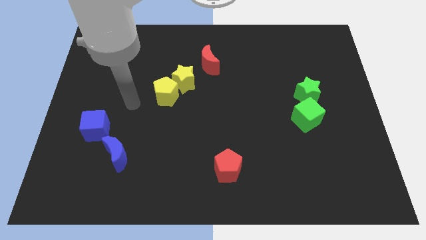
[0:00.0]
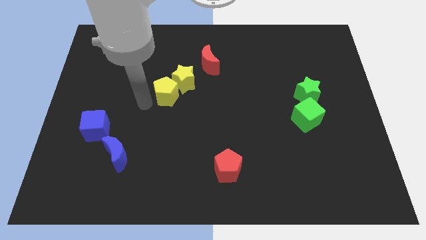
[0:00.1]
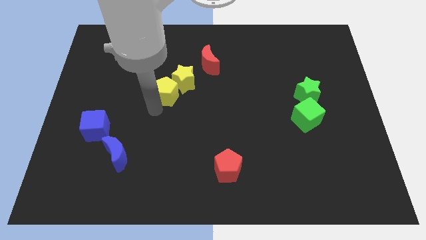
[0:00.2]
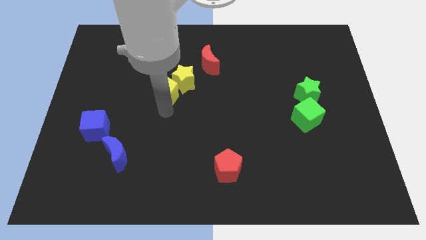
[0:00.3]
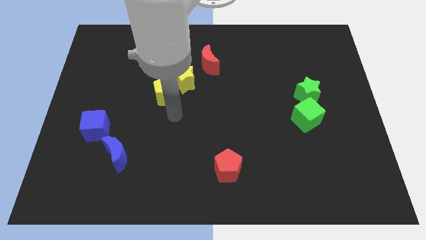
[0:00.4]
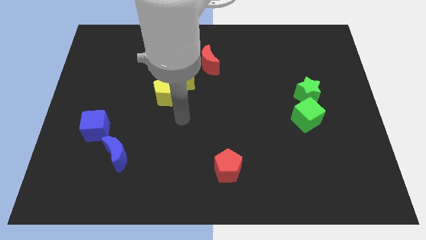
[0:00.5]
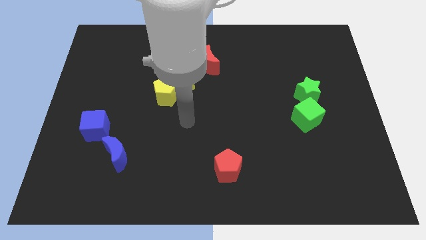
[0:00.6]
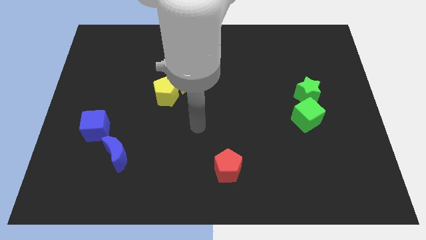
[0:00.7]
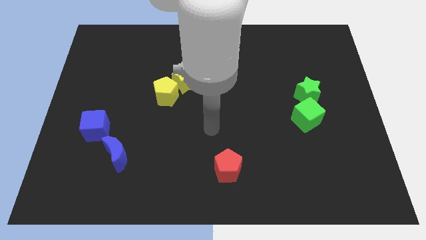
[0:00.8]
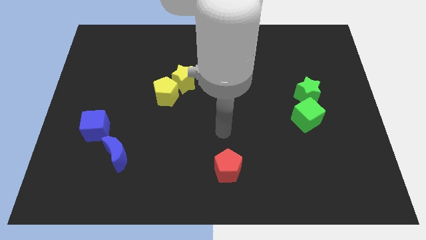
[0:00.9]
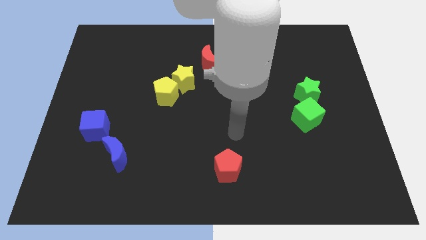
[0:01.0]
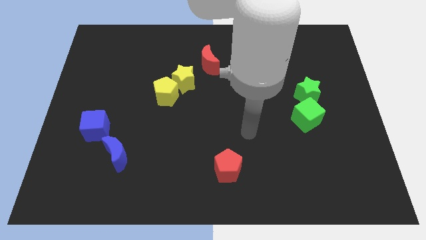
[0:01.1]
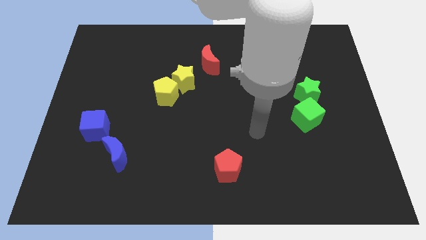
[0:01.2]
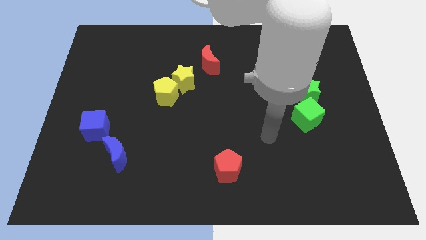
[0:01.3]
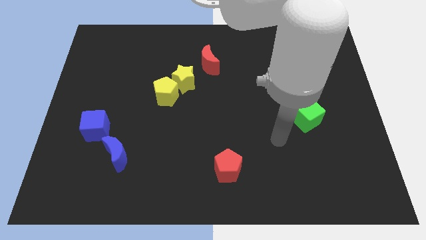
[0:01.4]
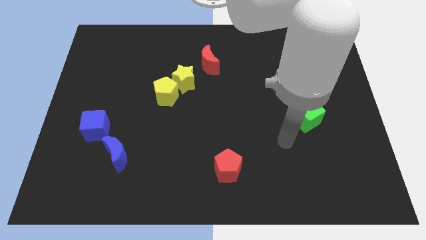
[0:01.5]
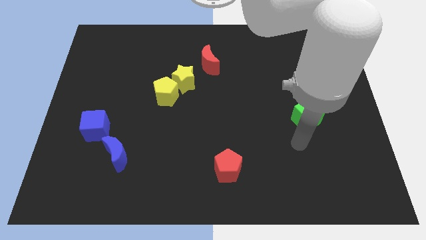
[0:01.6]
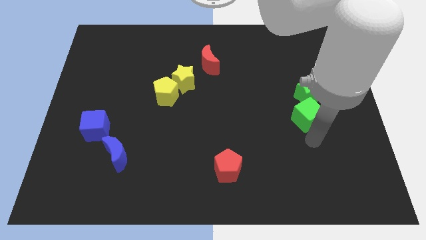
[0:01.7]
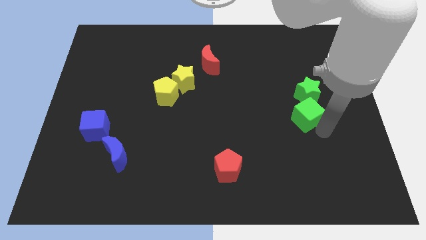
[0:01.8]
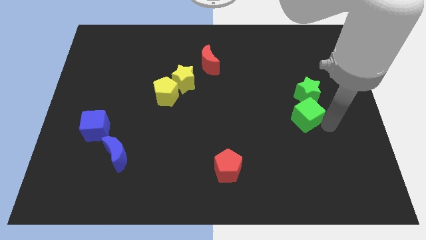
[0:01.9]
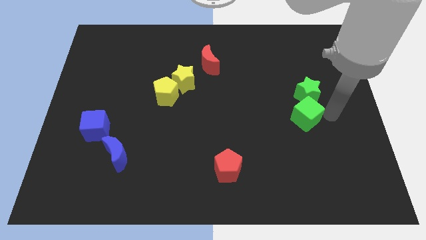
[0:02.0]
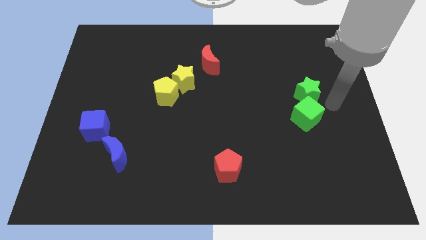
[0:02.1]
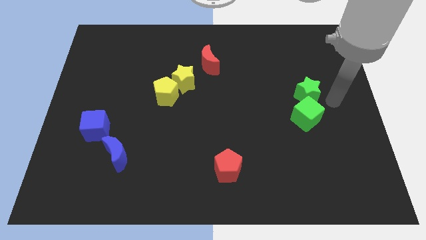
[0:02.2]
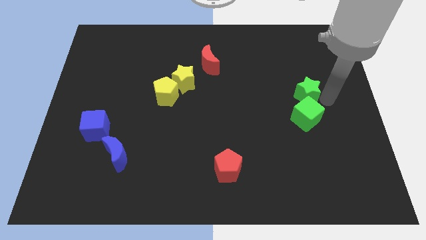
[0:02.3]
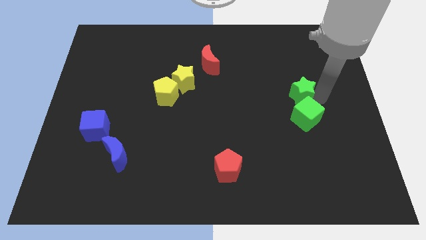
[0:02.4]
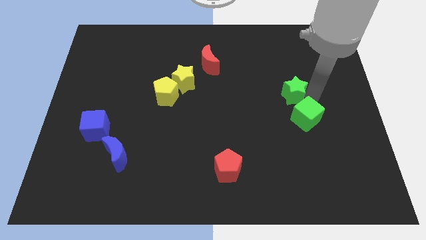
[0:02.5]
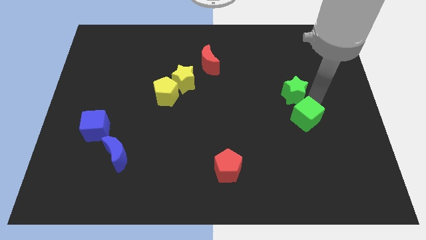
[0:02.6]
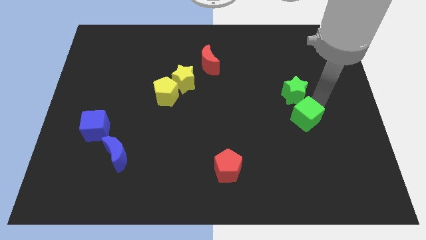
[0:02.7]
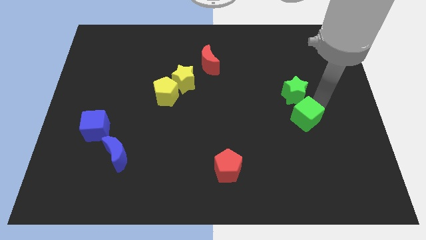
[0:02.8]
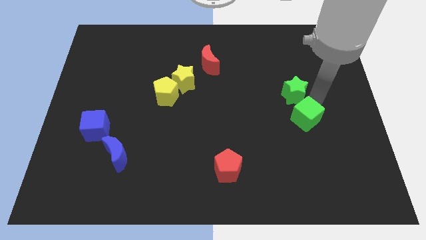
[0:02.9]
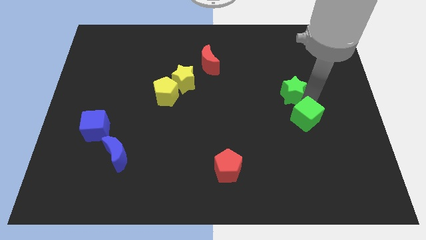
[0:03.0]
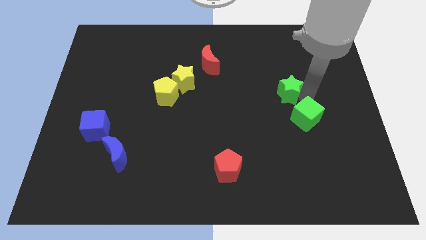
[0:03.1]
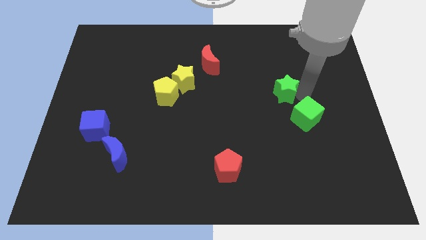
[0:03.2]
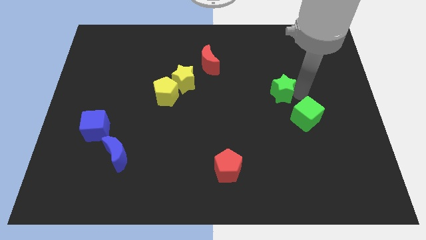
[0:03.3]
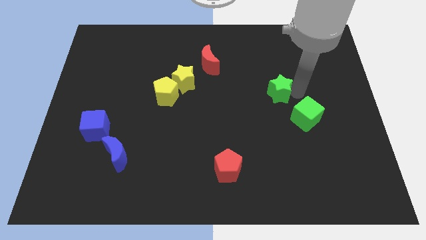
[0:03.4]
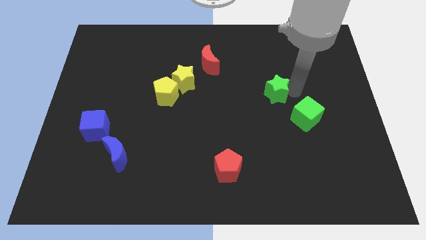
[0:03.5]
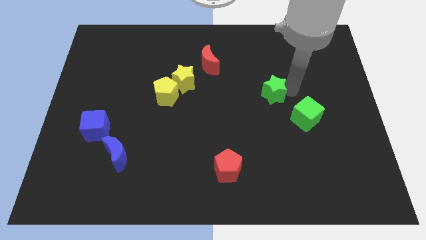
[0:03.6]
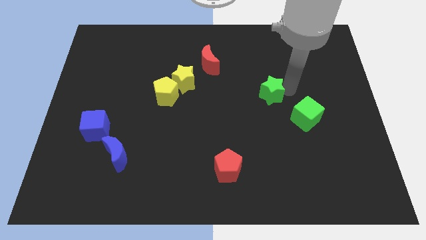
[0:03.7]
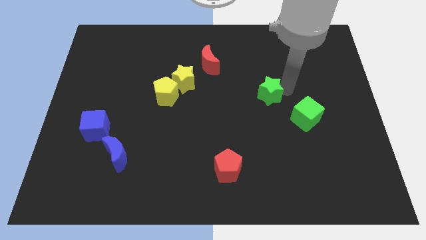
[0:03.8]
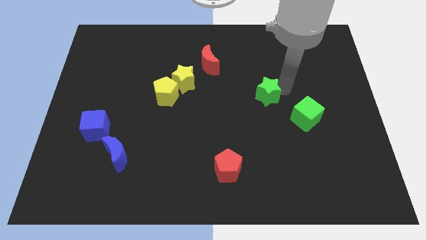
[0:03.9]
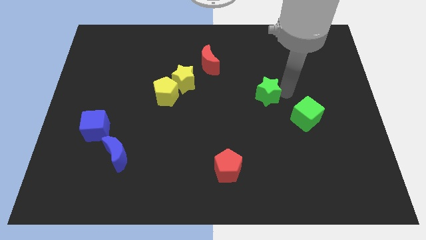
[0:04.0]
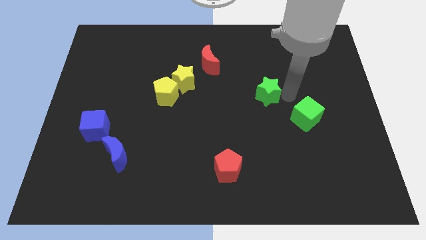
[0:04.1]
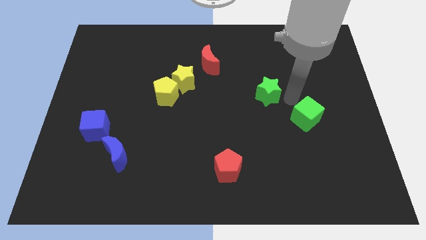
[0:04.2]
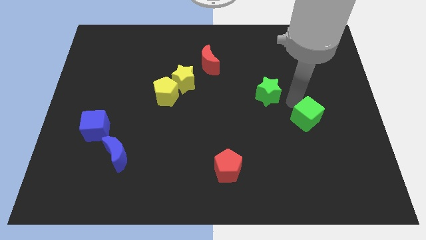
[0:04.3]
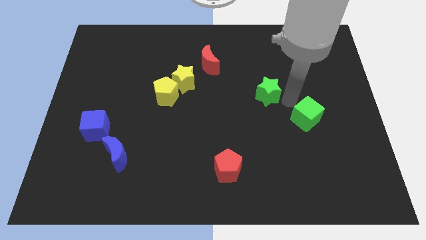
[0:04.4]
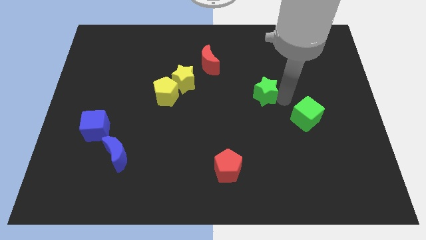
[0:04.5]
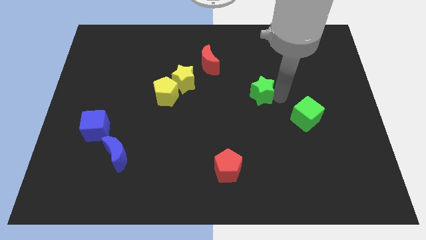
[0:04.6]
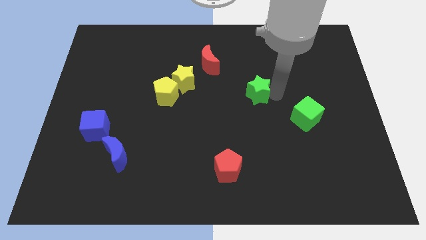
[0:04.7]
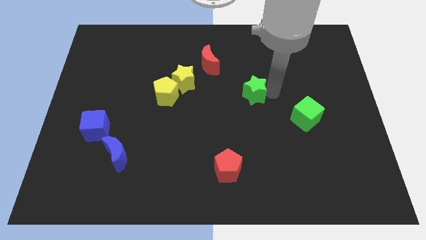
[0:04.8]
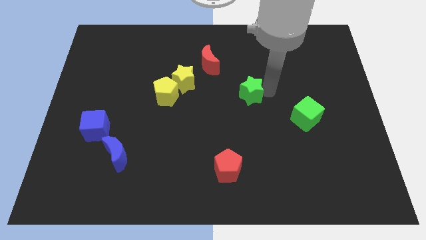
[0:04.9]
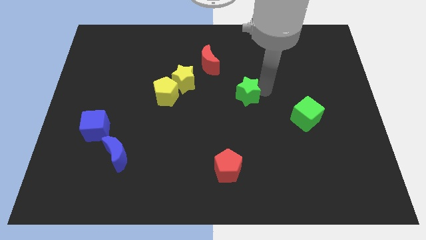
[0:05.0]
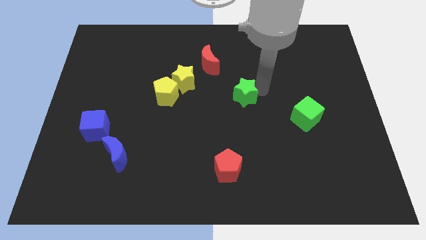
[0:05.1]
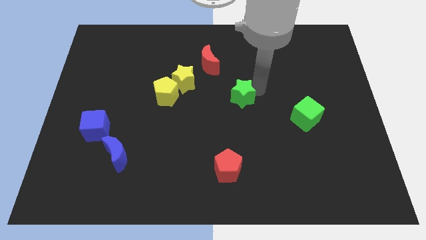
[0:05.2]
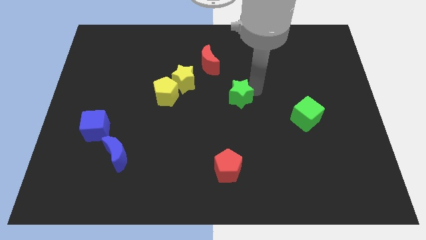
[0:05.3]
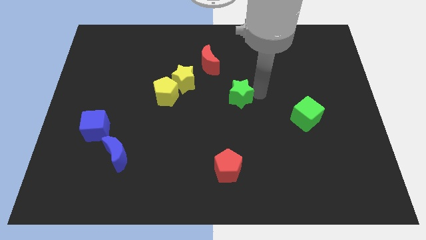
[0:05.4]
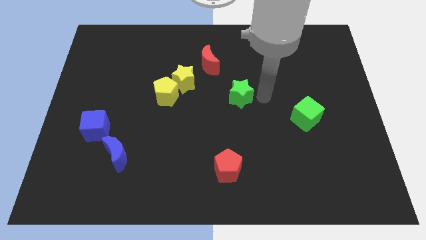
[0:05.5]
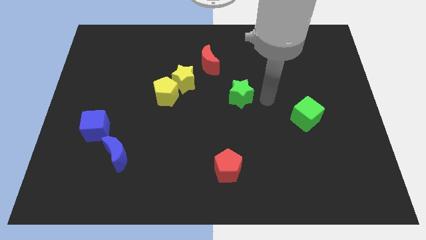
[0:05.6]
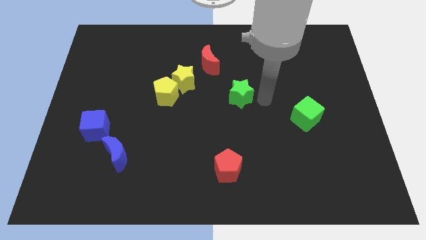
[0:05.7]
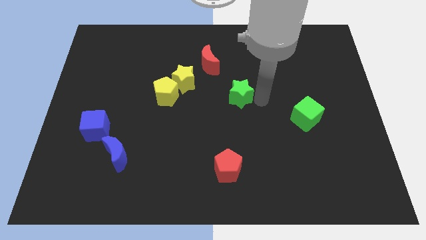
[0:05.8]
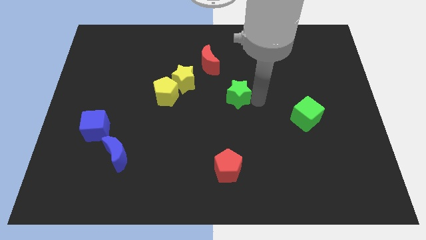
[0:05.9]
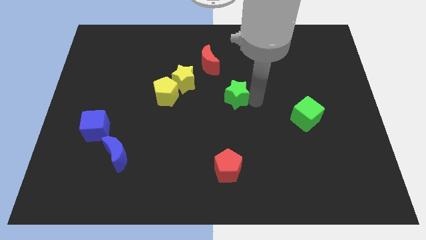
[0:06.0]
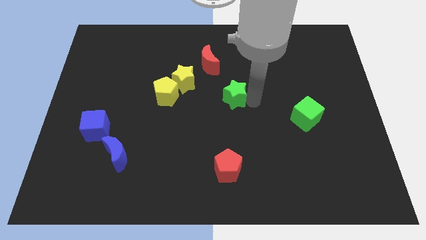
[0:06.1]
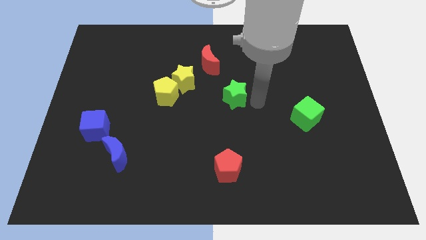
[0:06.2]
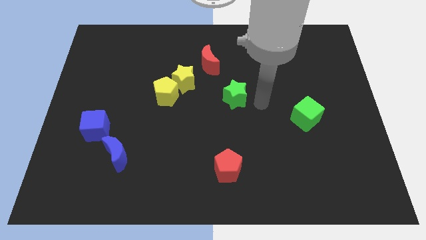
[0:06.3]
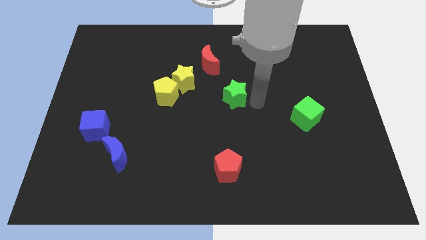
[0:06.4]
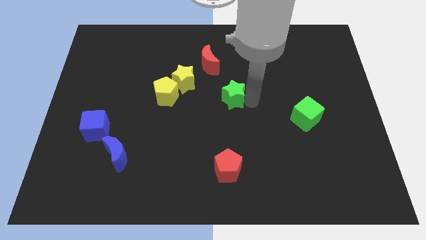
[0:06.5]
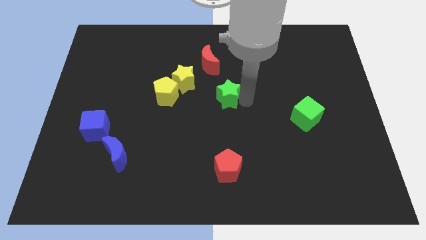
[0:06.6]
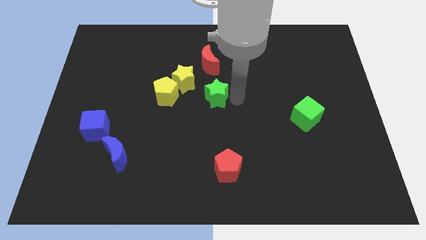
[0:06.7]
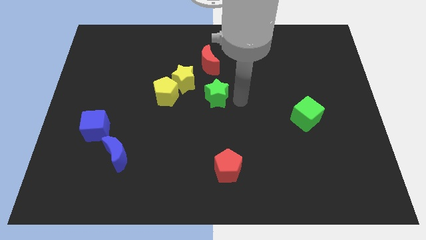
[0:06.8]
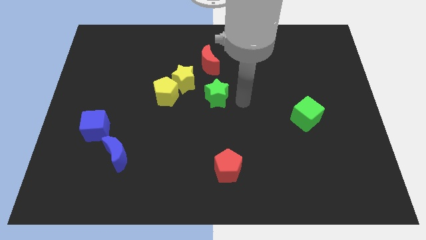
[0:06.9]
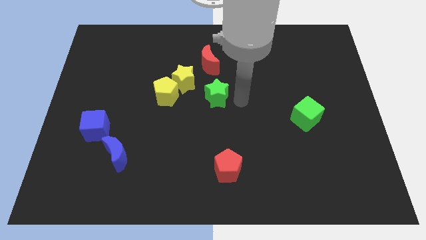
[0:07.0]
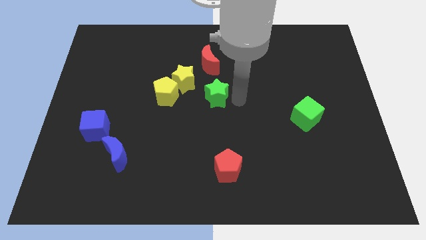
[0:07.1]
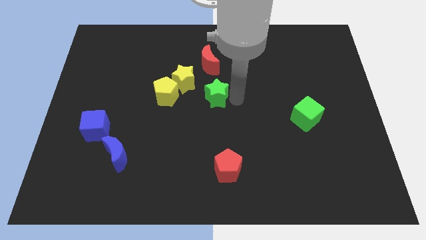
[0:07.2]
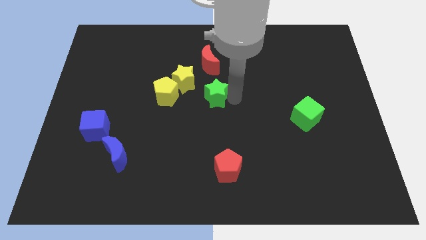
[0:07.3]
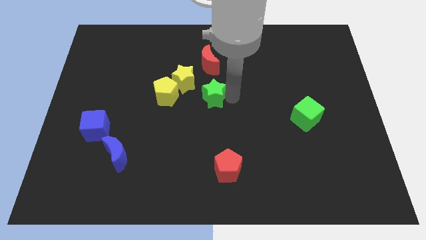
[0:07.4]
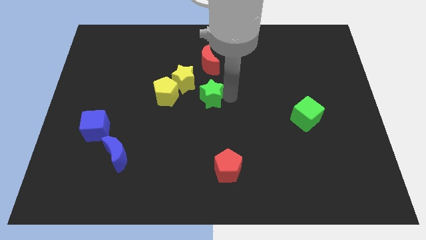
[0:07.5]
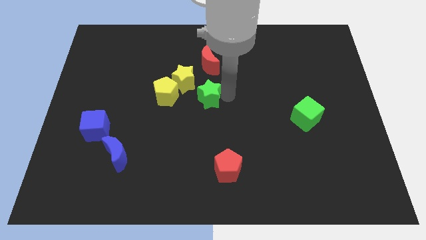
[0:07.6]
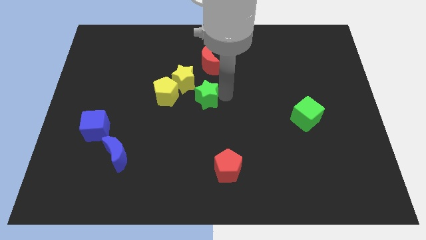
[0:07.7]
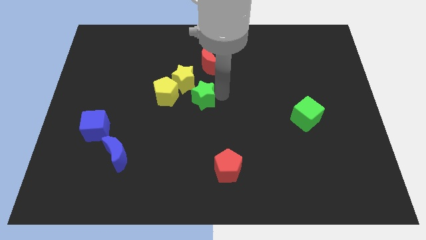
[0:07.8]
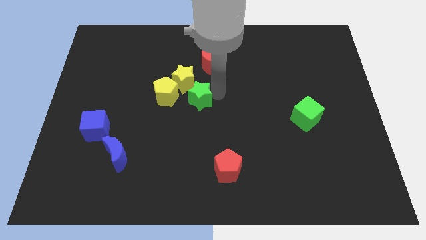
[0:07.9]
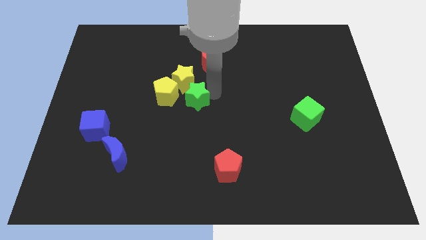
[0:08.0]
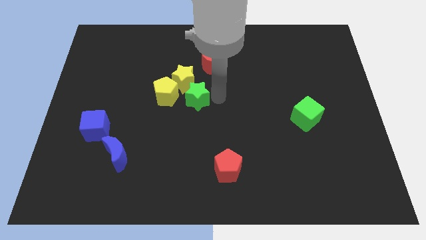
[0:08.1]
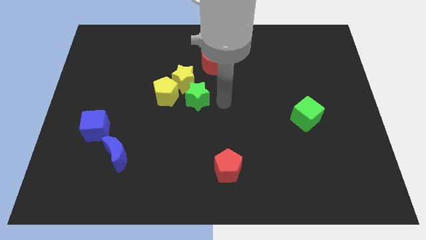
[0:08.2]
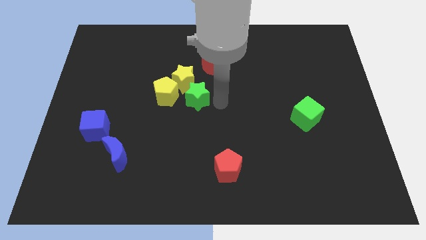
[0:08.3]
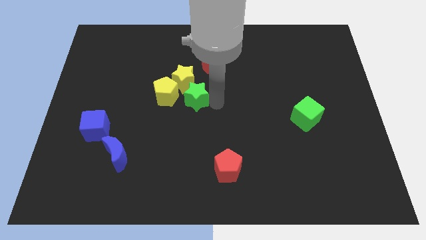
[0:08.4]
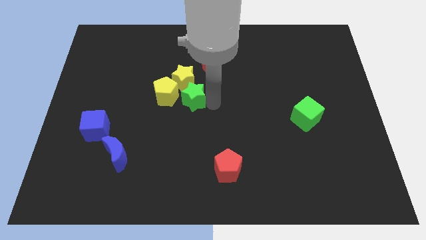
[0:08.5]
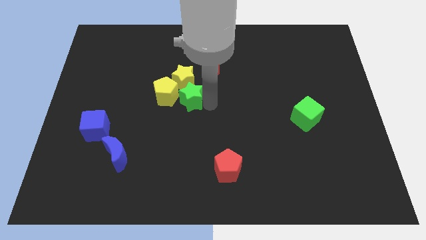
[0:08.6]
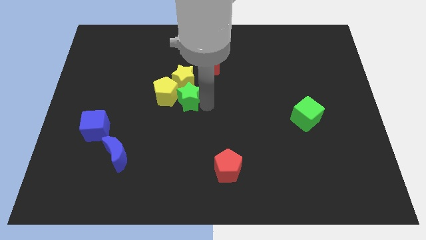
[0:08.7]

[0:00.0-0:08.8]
push the green star towards the yellow pentagon
